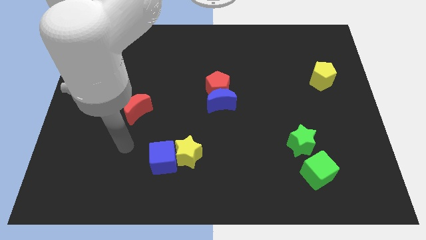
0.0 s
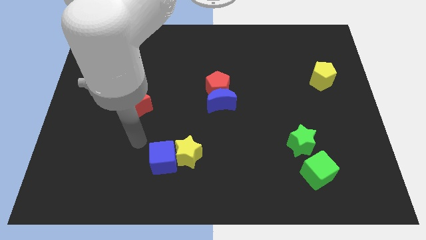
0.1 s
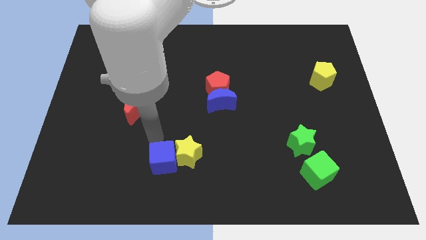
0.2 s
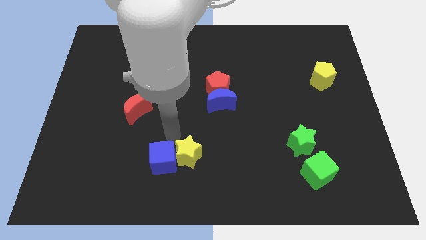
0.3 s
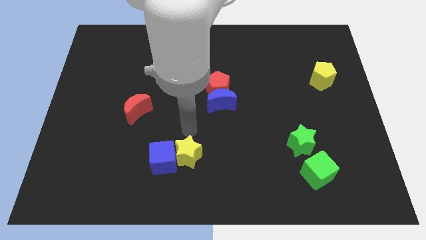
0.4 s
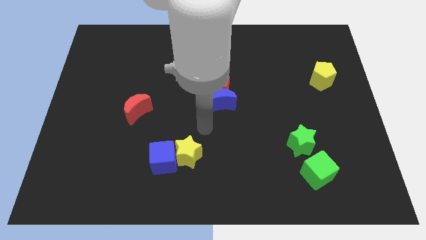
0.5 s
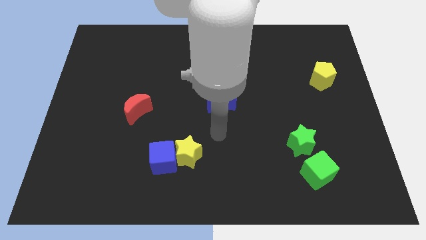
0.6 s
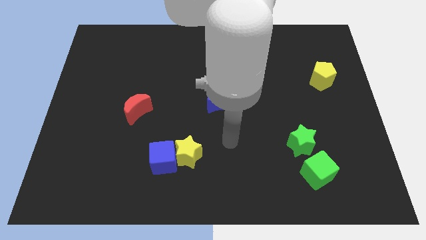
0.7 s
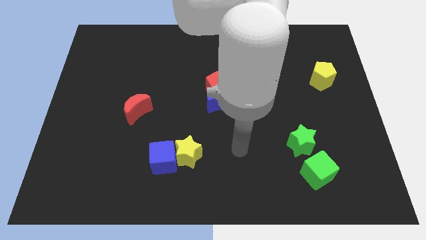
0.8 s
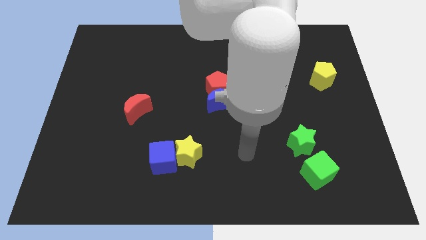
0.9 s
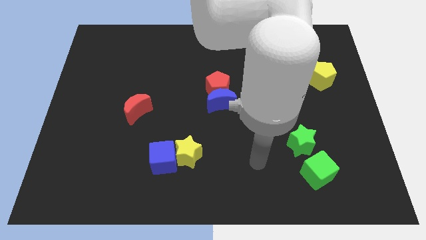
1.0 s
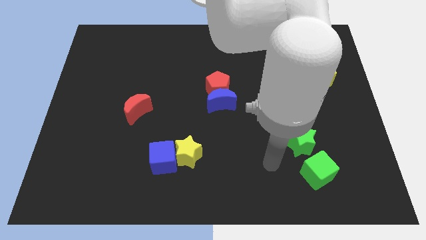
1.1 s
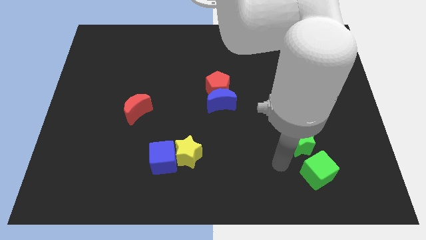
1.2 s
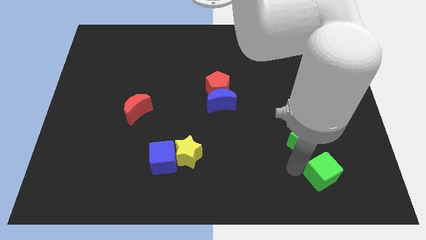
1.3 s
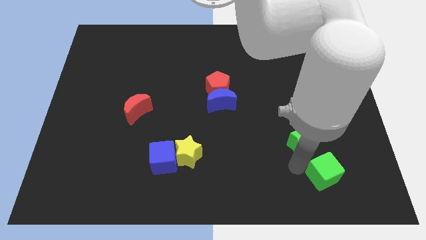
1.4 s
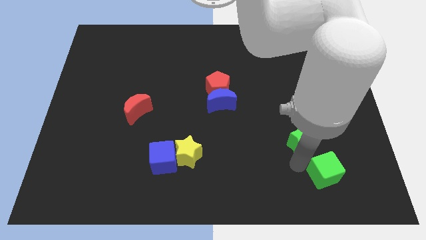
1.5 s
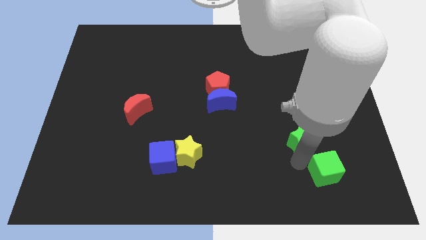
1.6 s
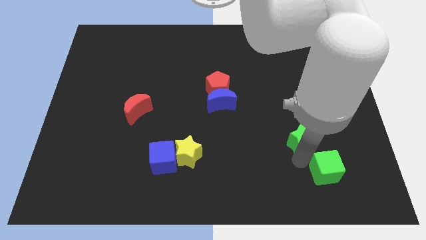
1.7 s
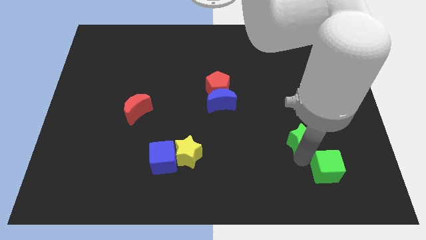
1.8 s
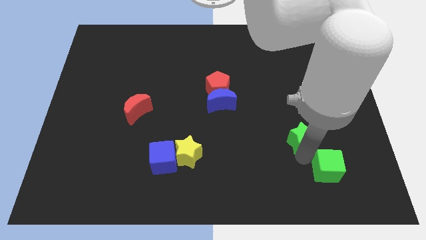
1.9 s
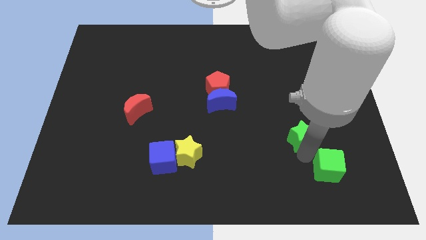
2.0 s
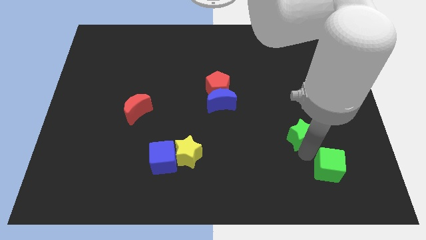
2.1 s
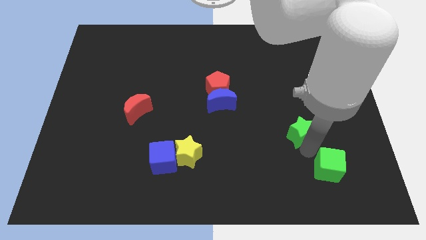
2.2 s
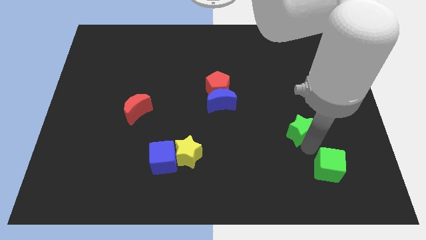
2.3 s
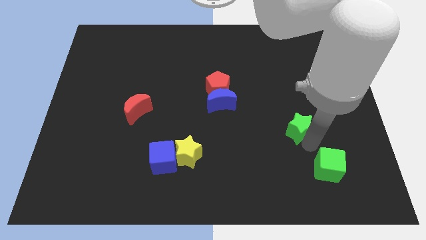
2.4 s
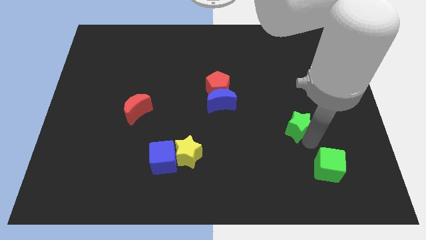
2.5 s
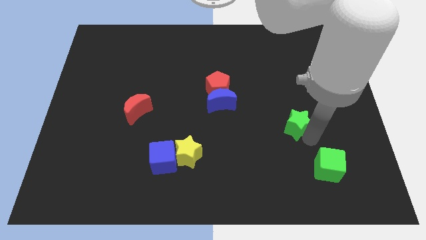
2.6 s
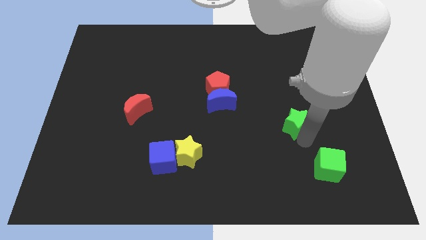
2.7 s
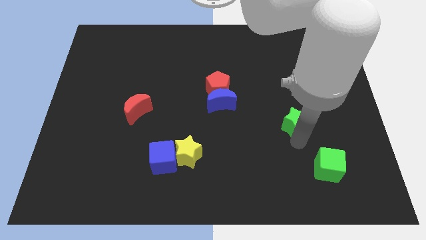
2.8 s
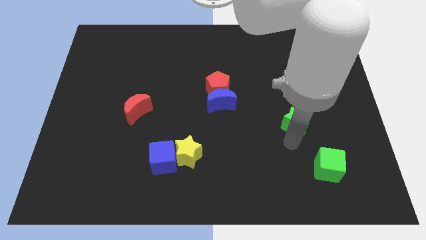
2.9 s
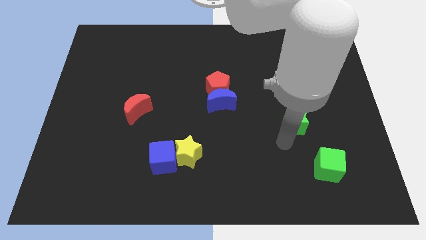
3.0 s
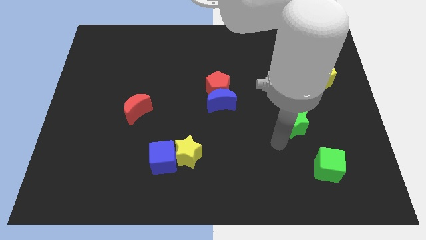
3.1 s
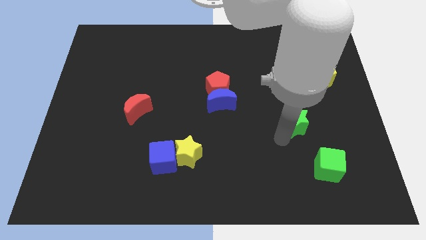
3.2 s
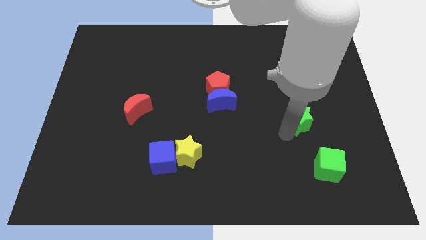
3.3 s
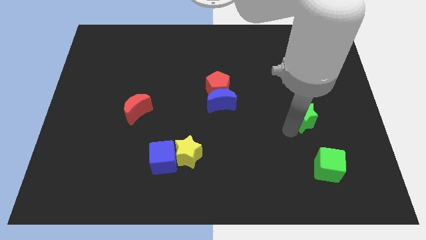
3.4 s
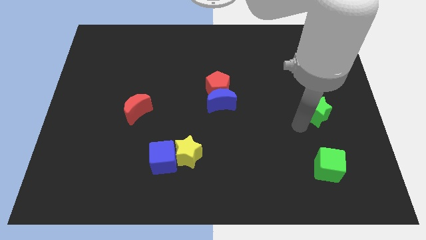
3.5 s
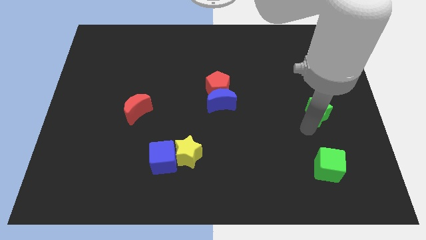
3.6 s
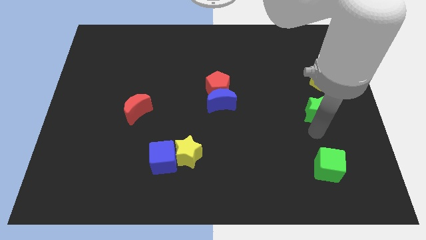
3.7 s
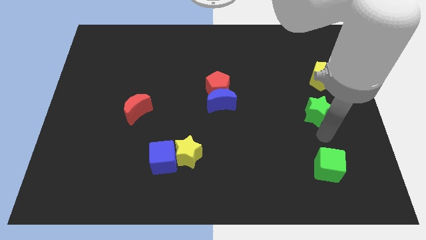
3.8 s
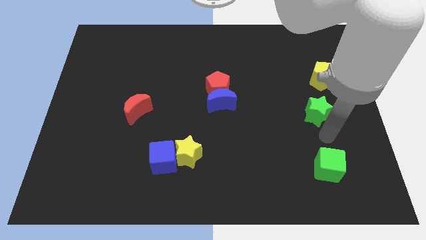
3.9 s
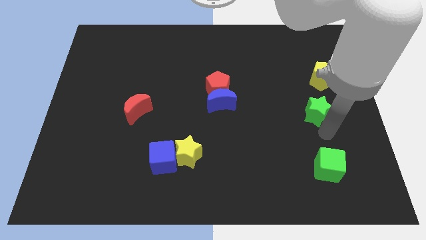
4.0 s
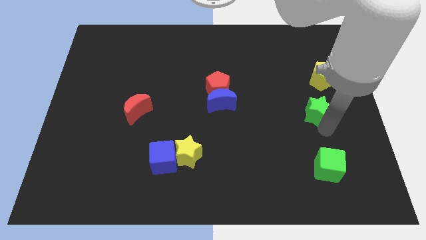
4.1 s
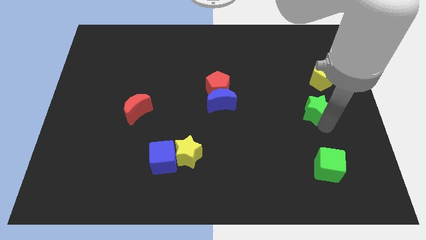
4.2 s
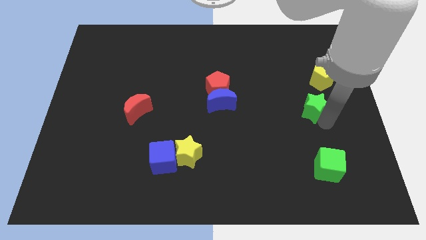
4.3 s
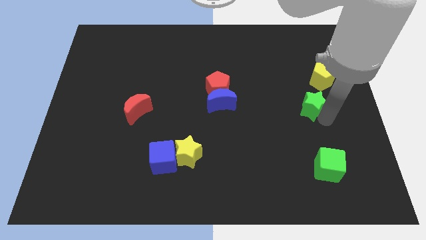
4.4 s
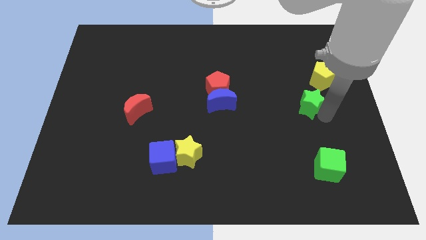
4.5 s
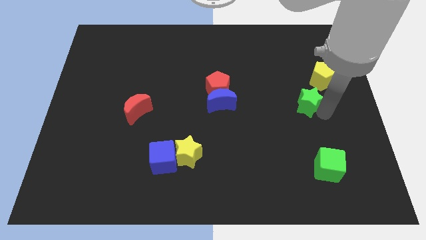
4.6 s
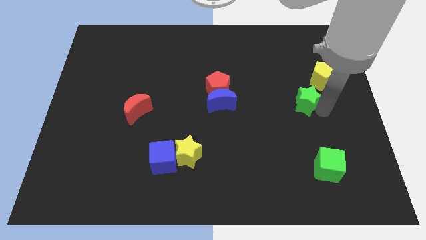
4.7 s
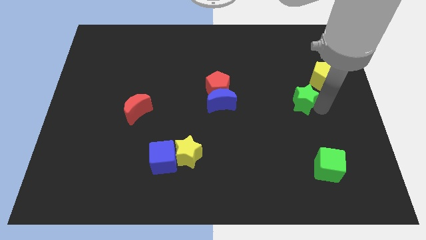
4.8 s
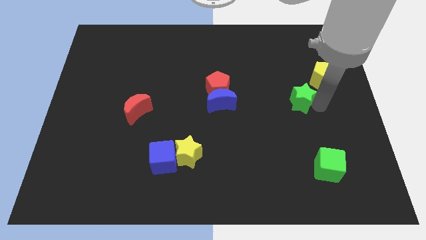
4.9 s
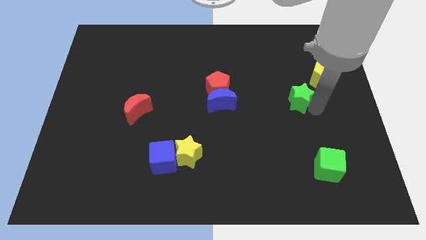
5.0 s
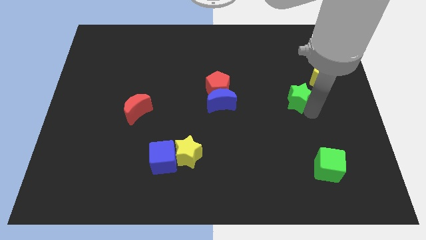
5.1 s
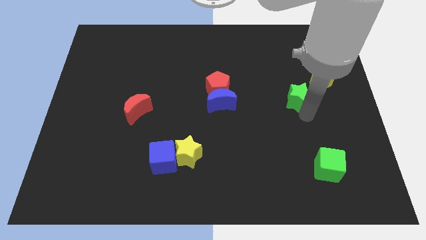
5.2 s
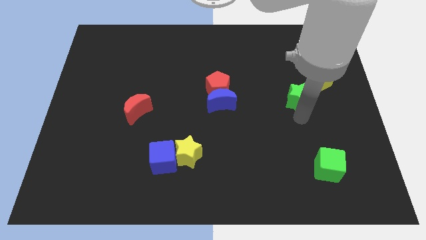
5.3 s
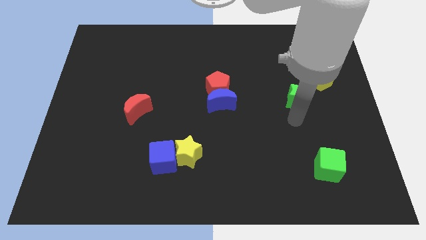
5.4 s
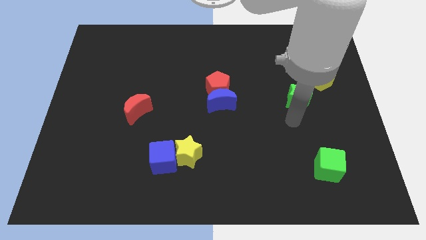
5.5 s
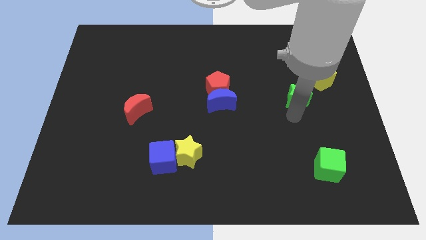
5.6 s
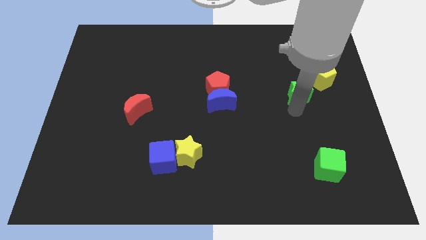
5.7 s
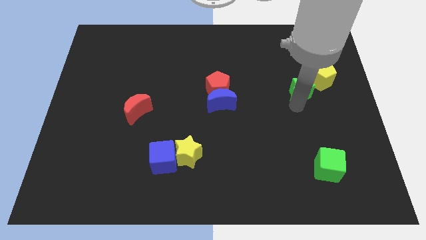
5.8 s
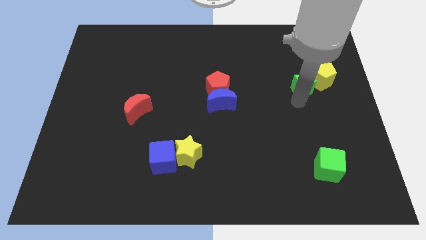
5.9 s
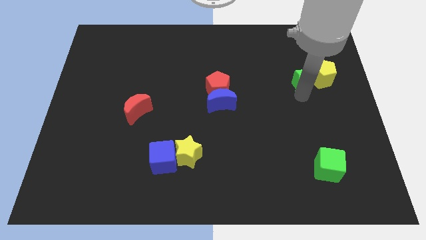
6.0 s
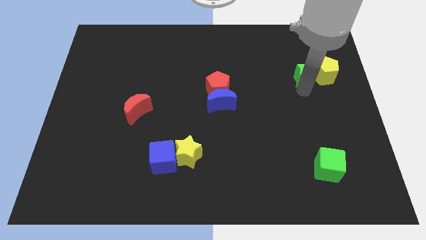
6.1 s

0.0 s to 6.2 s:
put the green star diagonally up and to the left of the yellow pentagon

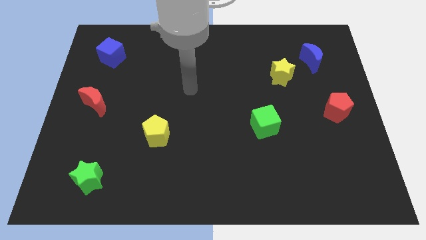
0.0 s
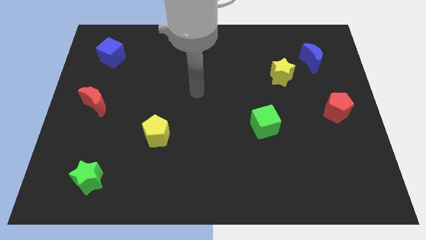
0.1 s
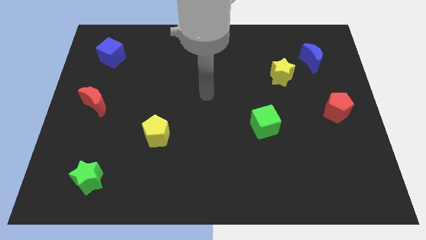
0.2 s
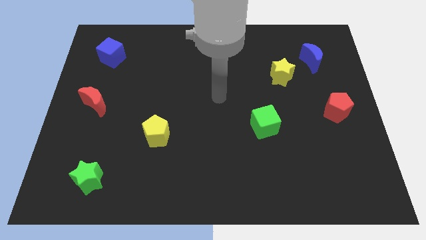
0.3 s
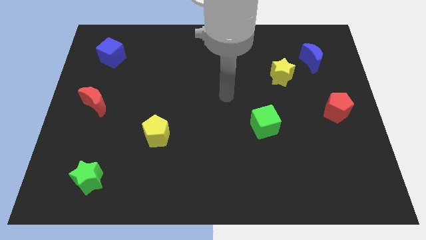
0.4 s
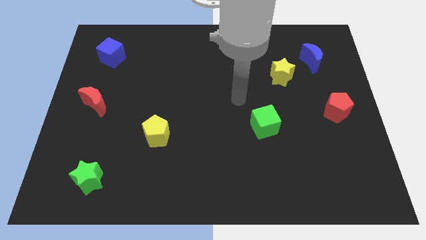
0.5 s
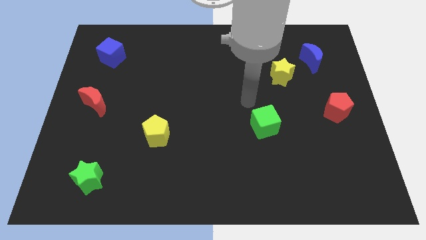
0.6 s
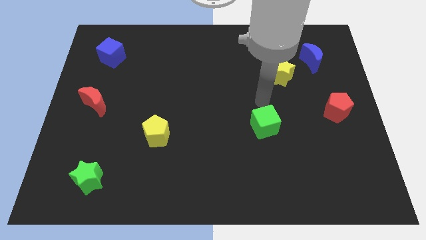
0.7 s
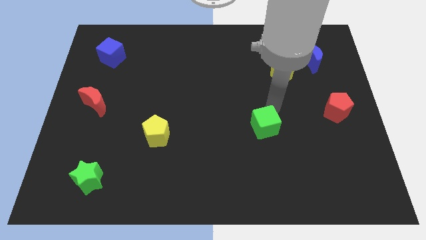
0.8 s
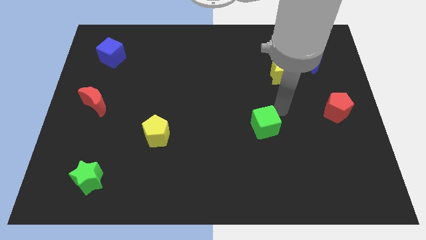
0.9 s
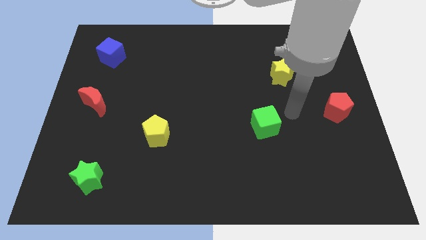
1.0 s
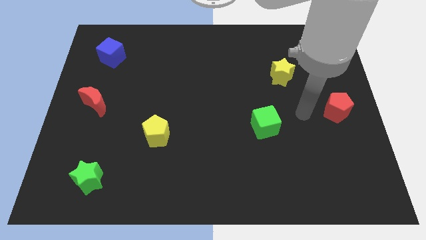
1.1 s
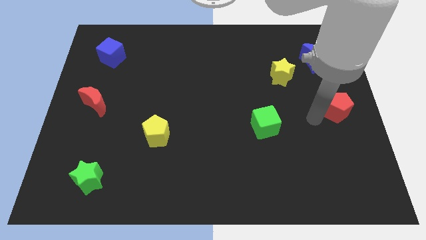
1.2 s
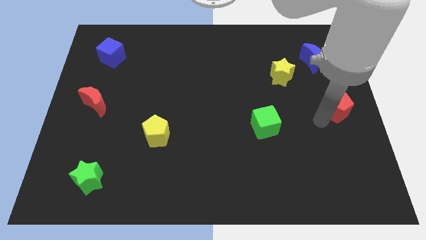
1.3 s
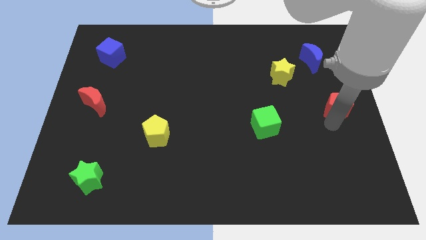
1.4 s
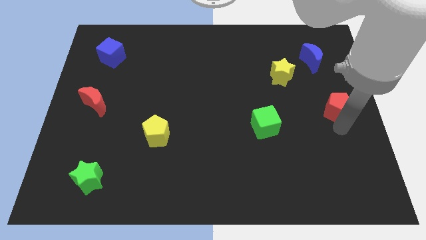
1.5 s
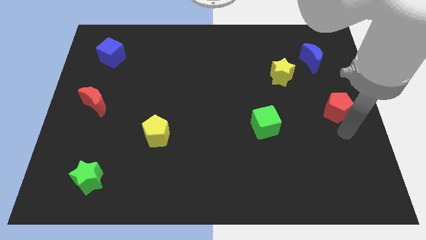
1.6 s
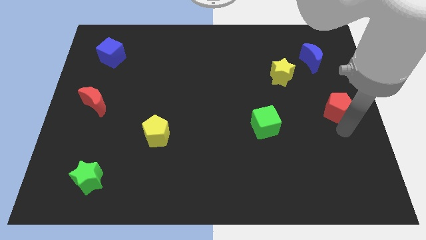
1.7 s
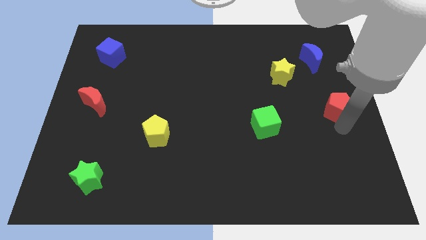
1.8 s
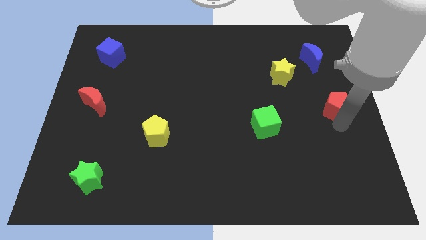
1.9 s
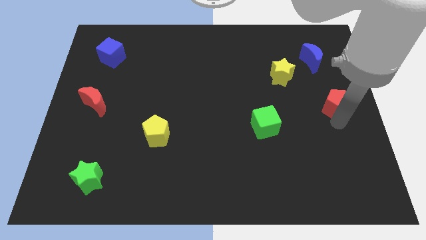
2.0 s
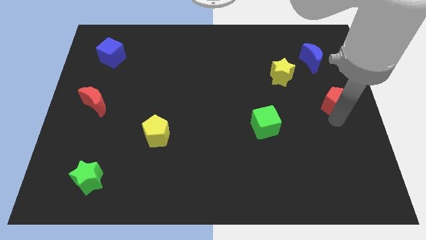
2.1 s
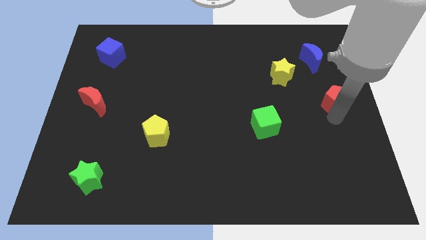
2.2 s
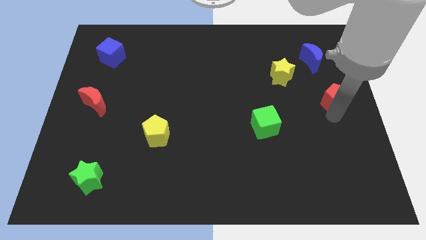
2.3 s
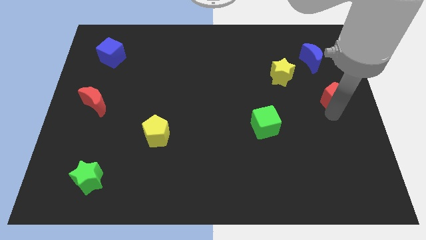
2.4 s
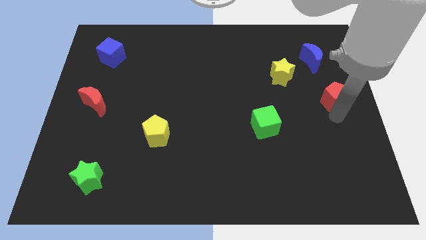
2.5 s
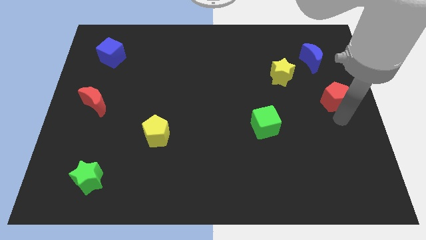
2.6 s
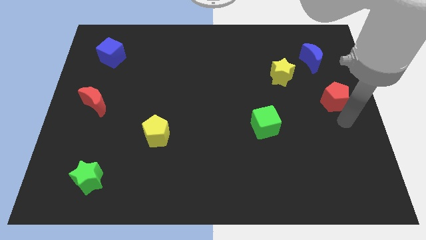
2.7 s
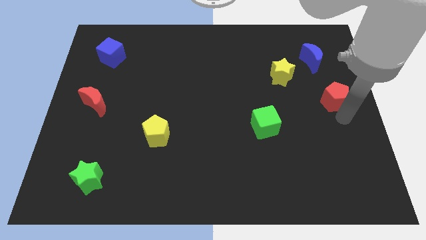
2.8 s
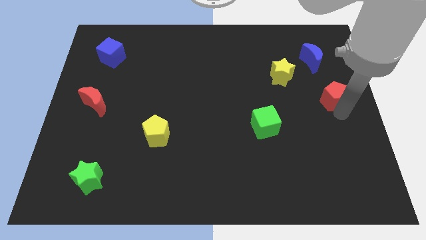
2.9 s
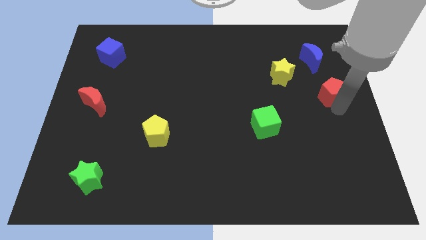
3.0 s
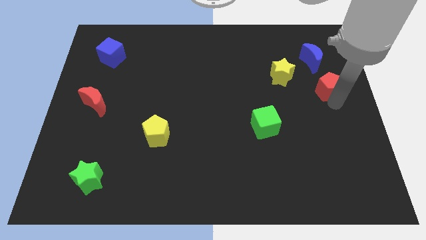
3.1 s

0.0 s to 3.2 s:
push the red pentagon to the right of the yellow star
